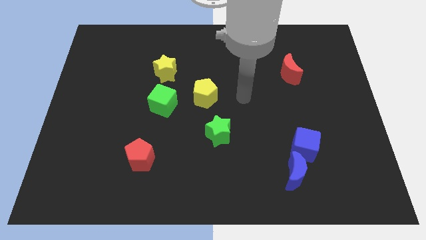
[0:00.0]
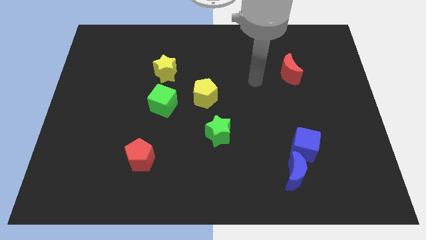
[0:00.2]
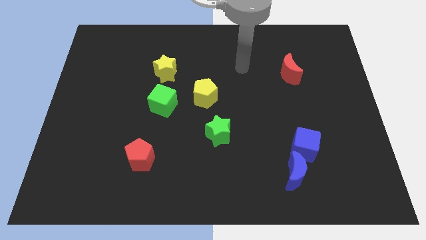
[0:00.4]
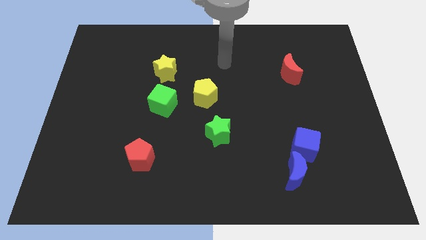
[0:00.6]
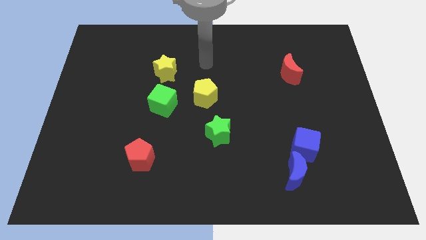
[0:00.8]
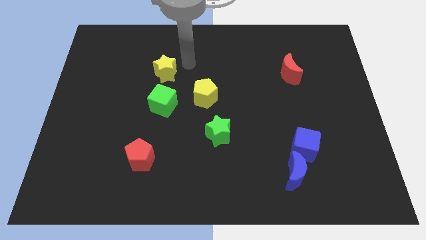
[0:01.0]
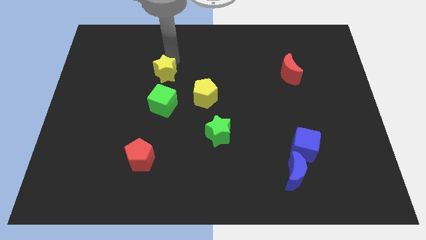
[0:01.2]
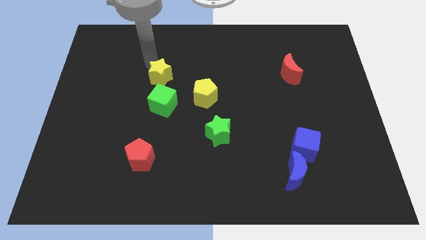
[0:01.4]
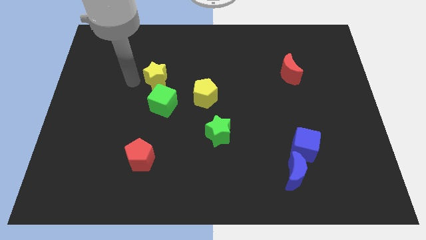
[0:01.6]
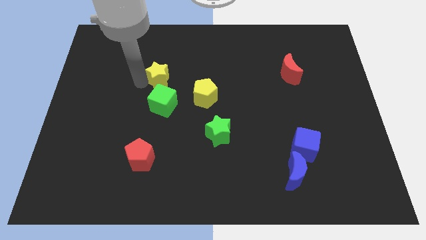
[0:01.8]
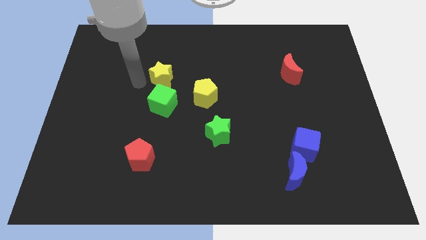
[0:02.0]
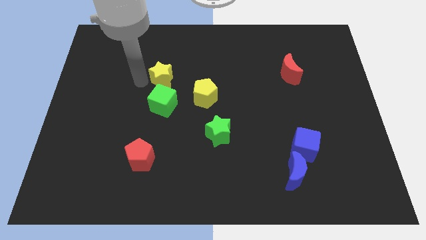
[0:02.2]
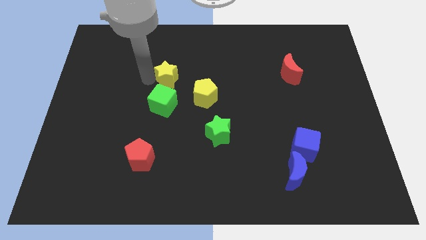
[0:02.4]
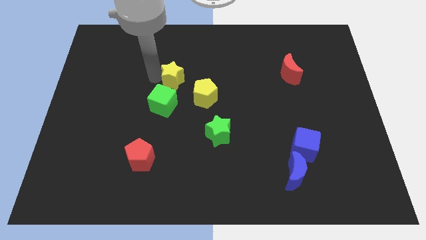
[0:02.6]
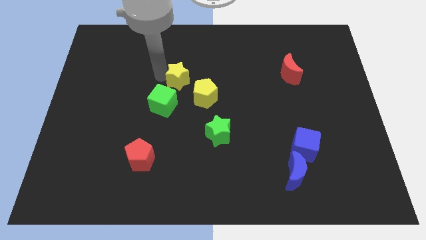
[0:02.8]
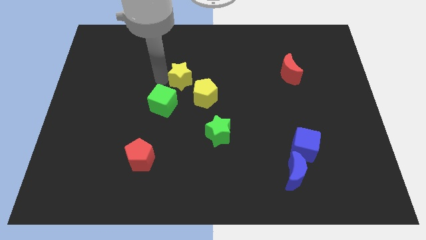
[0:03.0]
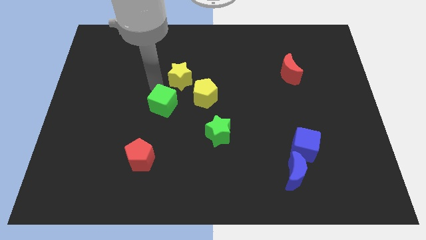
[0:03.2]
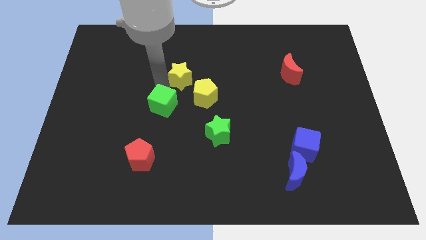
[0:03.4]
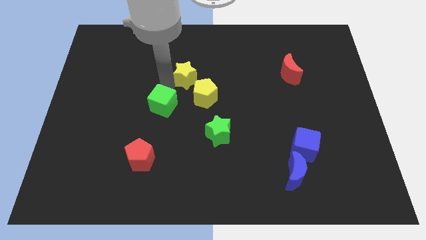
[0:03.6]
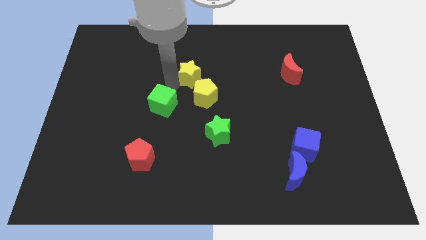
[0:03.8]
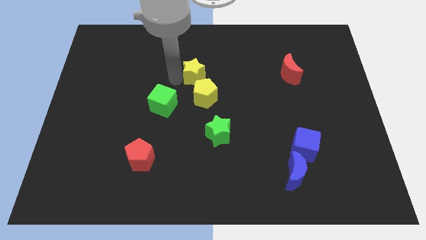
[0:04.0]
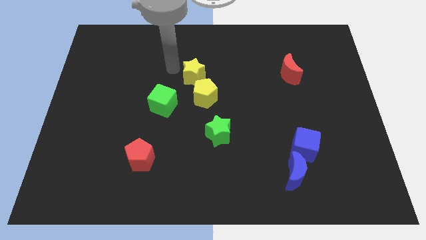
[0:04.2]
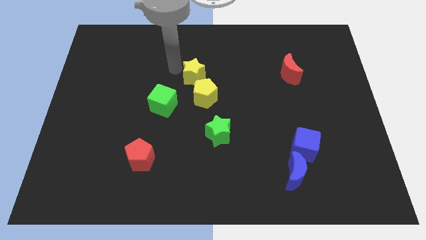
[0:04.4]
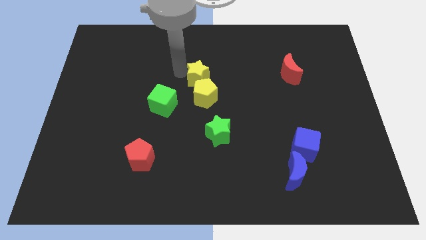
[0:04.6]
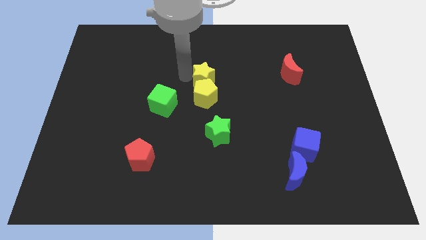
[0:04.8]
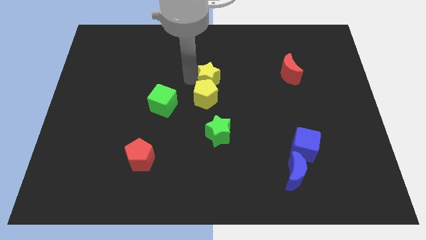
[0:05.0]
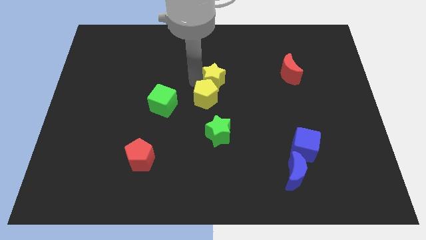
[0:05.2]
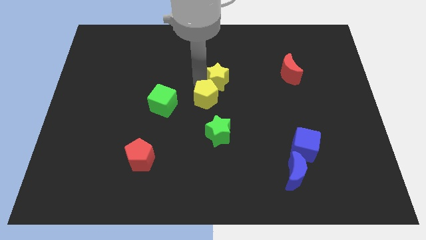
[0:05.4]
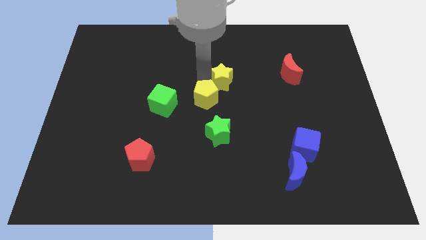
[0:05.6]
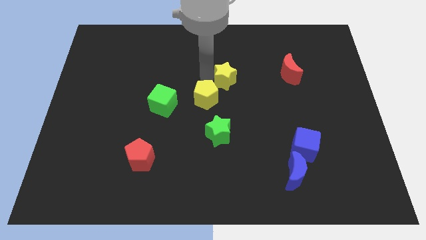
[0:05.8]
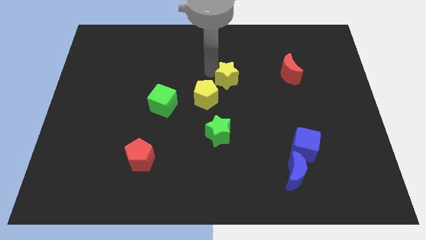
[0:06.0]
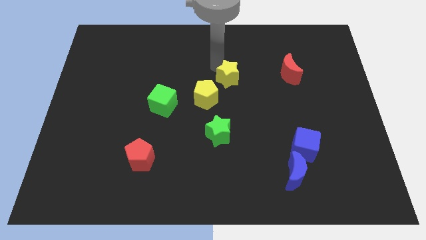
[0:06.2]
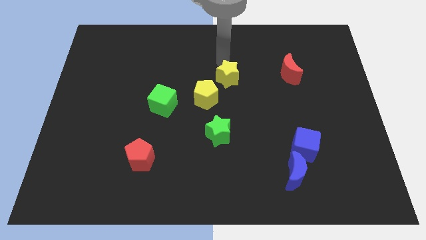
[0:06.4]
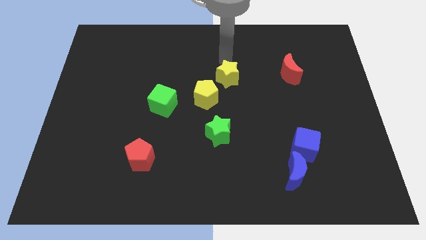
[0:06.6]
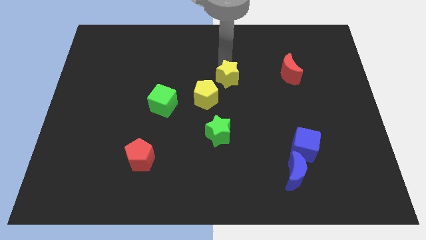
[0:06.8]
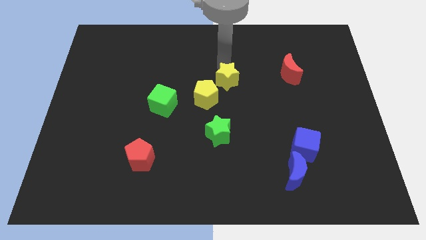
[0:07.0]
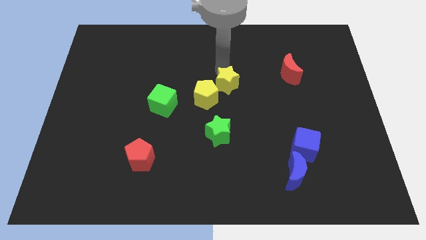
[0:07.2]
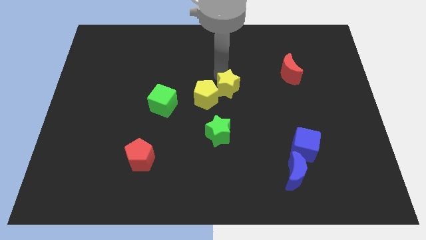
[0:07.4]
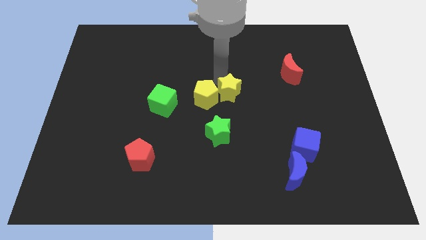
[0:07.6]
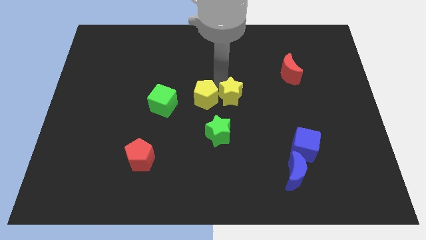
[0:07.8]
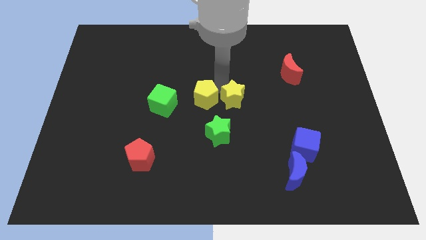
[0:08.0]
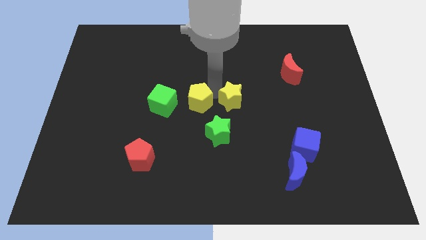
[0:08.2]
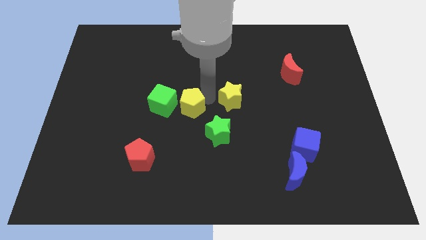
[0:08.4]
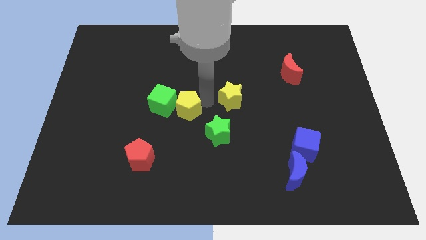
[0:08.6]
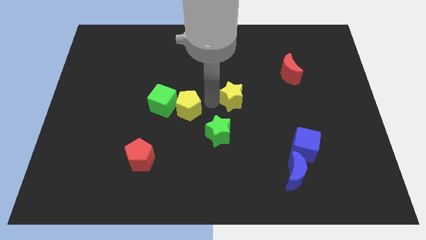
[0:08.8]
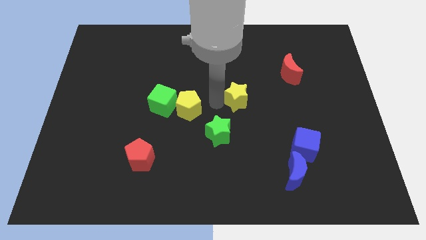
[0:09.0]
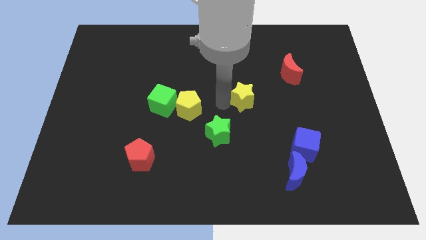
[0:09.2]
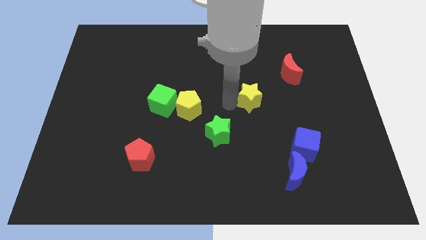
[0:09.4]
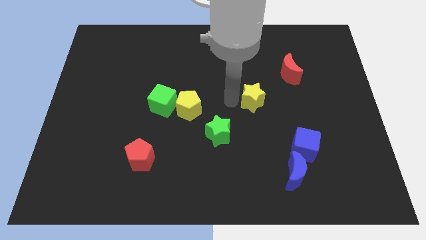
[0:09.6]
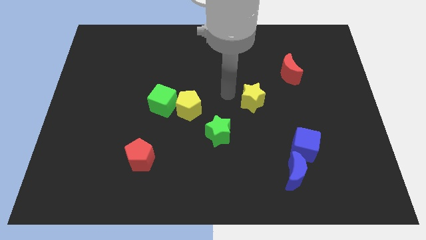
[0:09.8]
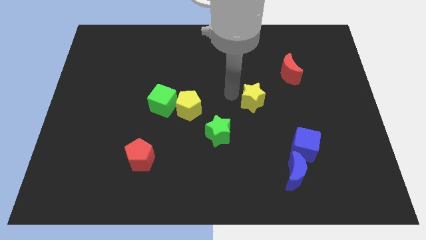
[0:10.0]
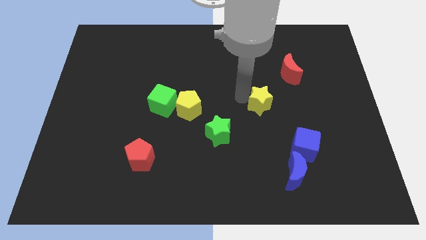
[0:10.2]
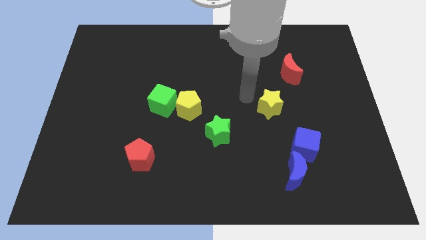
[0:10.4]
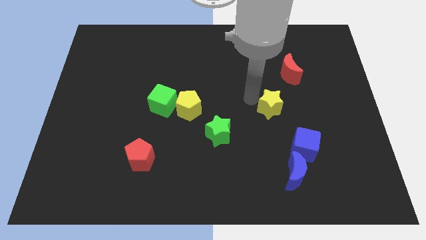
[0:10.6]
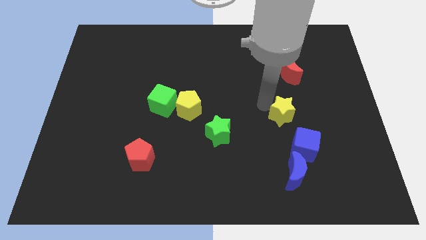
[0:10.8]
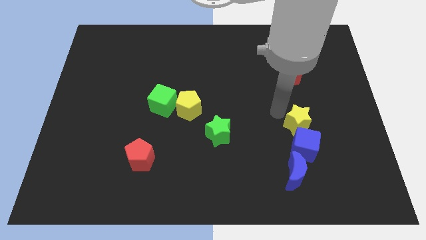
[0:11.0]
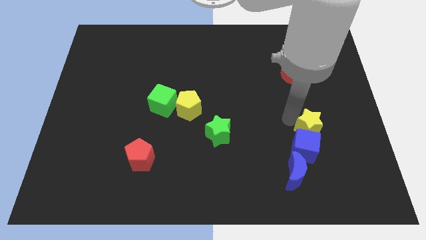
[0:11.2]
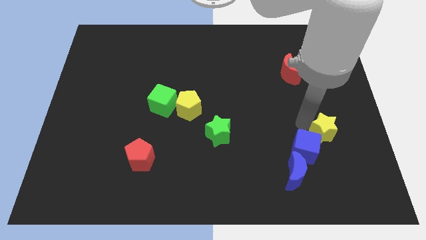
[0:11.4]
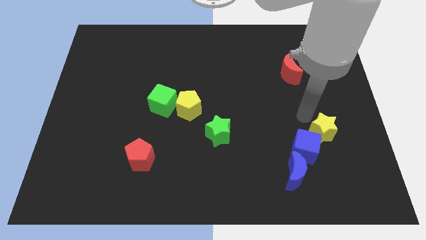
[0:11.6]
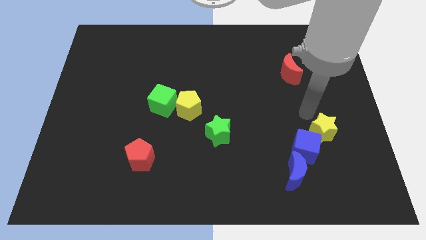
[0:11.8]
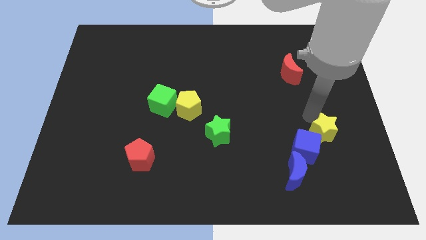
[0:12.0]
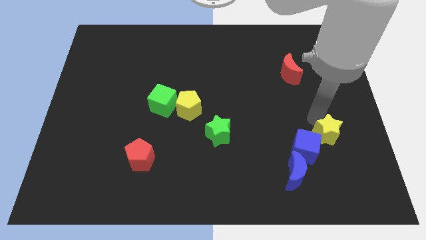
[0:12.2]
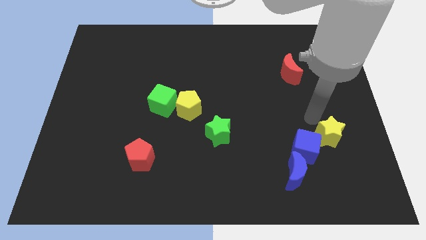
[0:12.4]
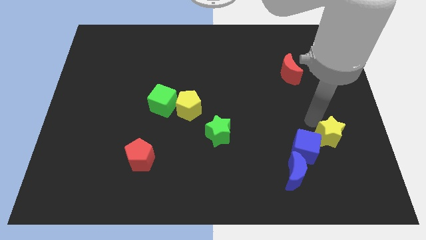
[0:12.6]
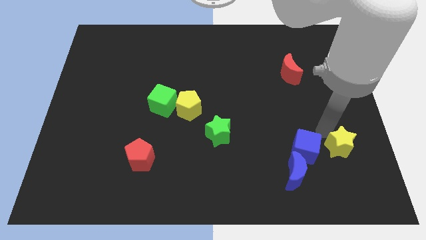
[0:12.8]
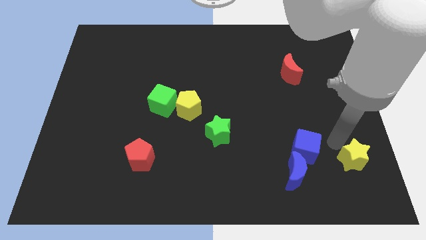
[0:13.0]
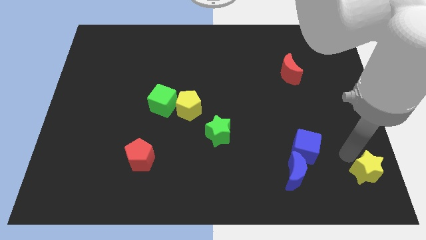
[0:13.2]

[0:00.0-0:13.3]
move the yellow star to the bottom right of the board
